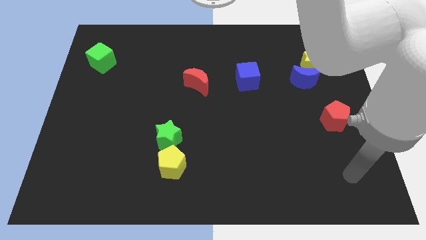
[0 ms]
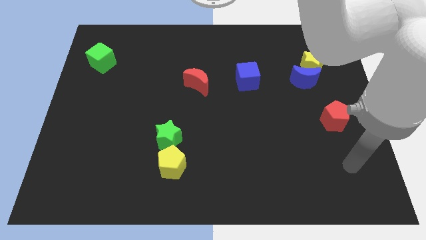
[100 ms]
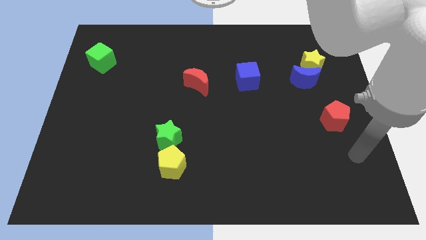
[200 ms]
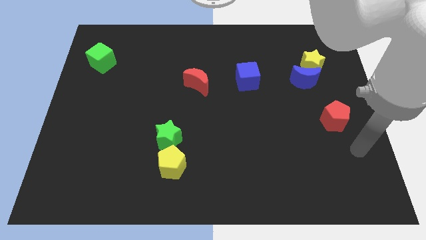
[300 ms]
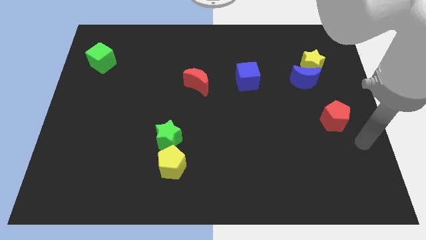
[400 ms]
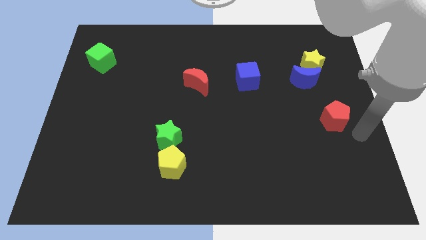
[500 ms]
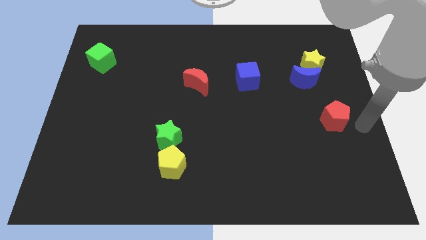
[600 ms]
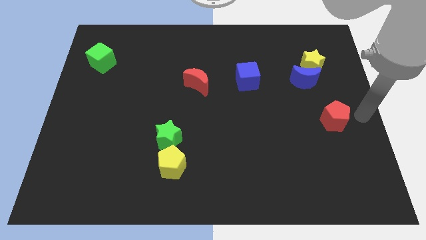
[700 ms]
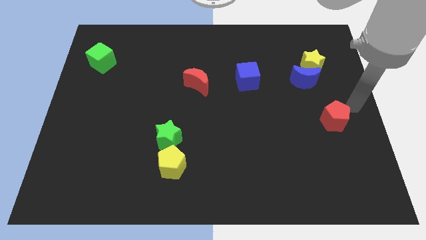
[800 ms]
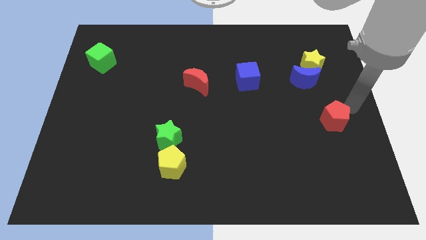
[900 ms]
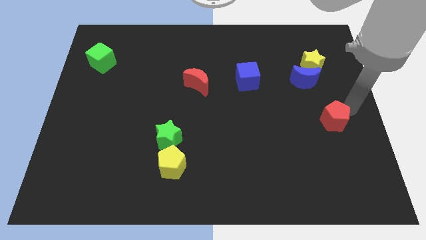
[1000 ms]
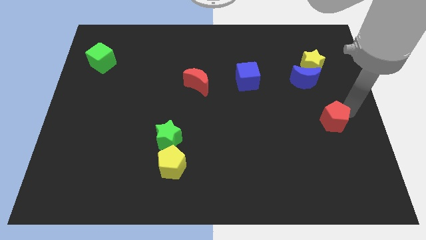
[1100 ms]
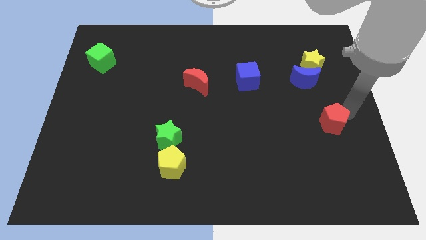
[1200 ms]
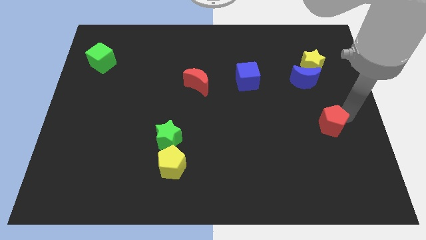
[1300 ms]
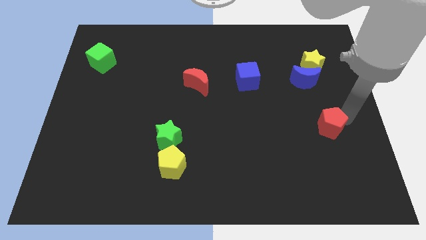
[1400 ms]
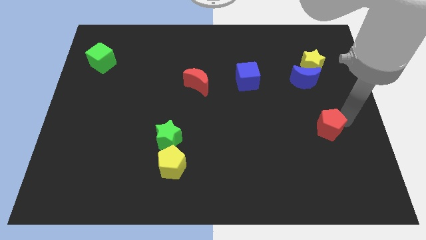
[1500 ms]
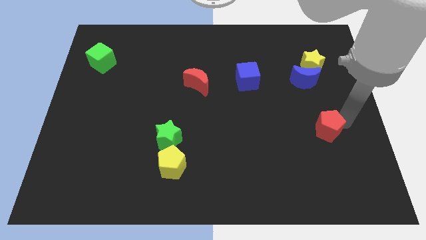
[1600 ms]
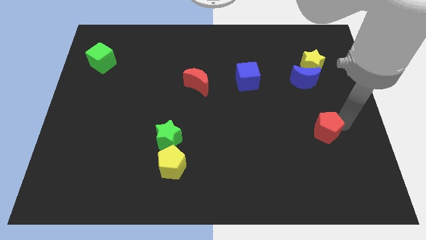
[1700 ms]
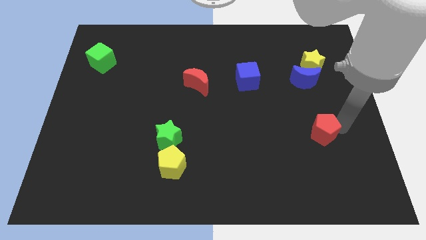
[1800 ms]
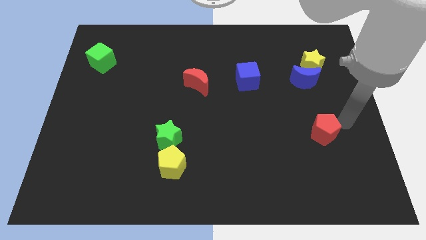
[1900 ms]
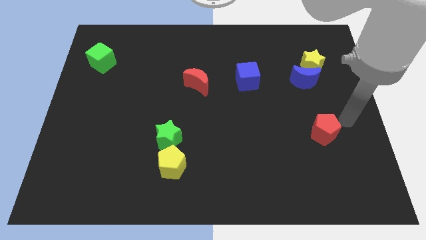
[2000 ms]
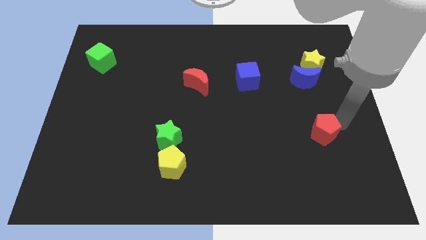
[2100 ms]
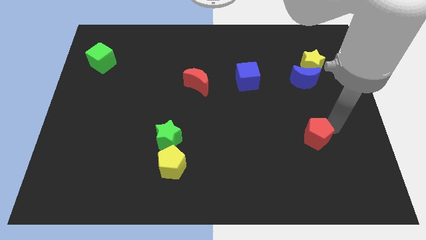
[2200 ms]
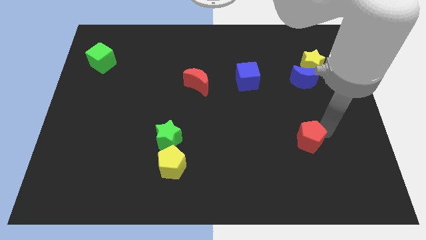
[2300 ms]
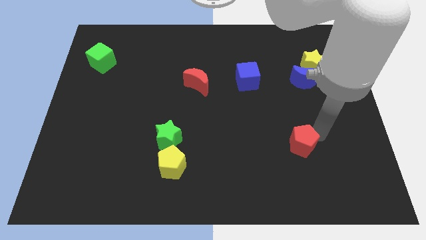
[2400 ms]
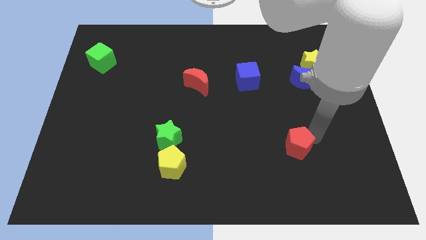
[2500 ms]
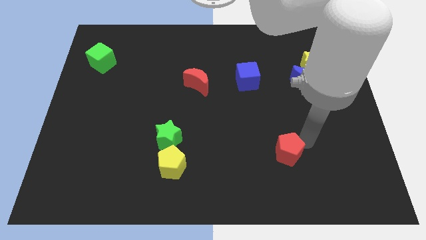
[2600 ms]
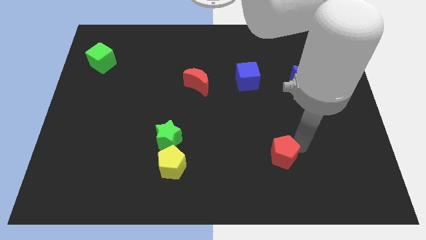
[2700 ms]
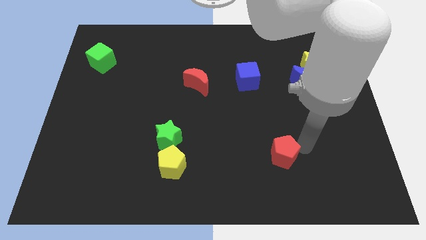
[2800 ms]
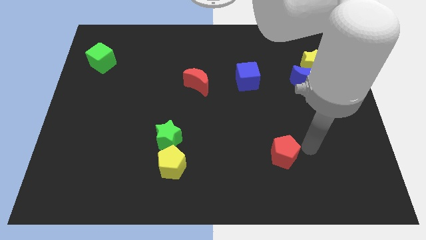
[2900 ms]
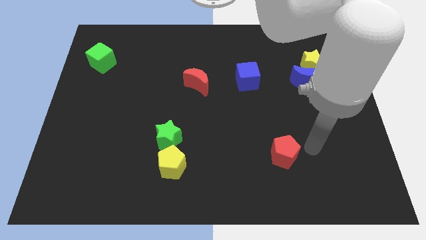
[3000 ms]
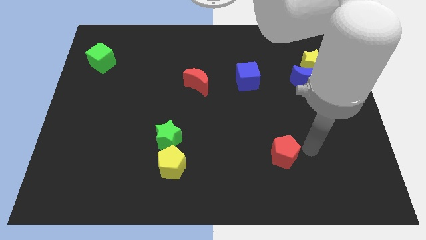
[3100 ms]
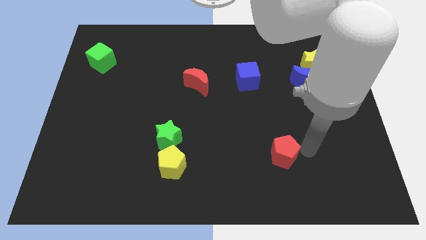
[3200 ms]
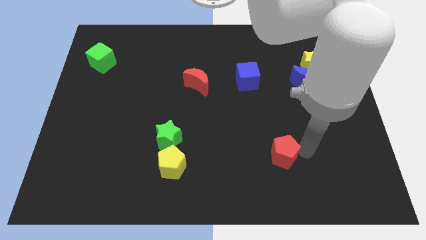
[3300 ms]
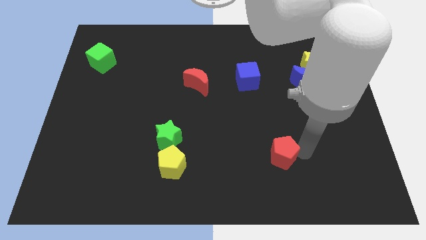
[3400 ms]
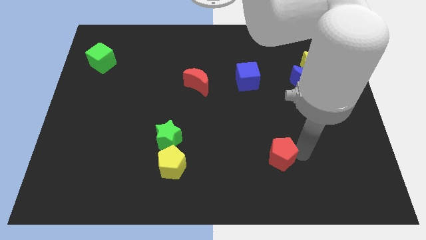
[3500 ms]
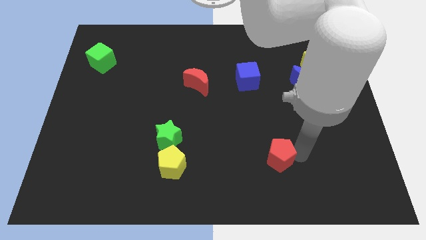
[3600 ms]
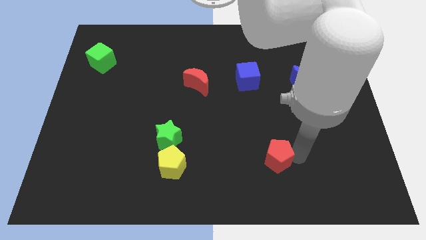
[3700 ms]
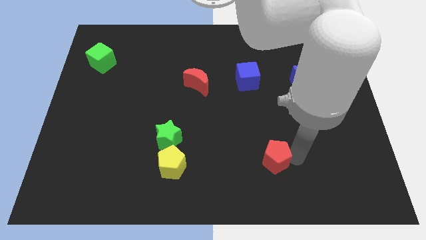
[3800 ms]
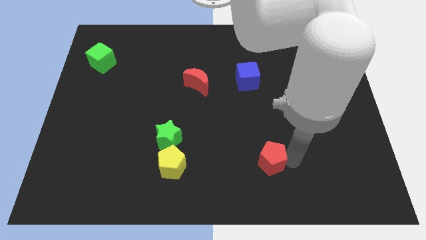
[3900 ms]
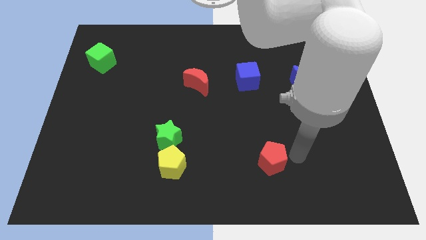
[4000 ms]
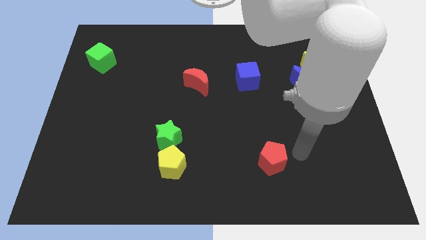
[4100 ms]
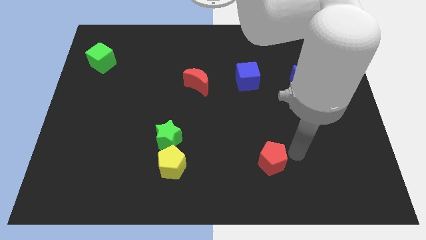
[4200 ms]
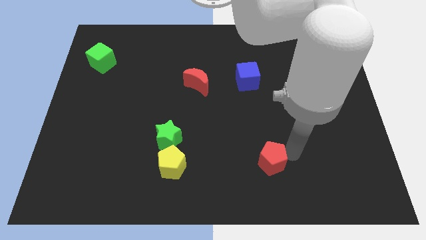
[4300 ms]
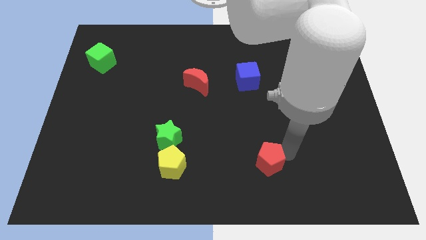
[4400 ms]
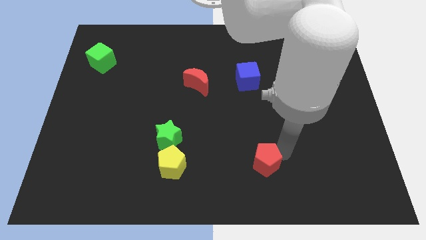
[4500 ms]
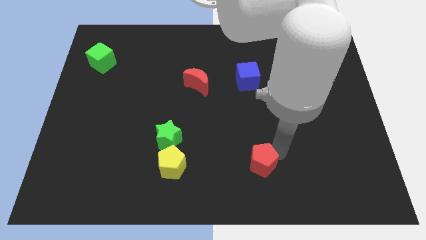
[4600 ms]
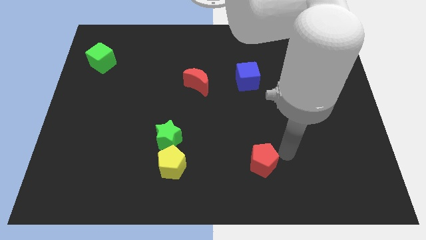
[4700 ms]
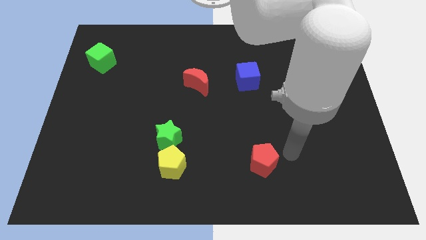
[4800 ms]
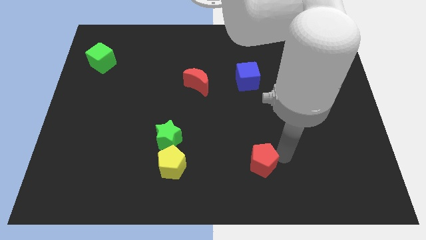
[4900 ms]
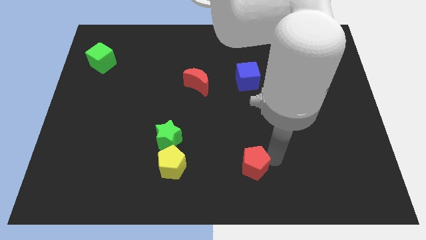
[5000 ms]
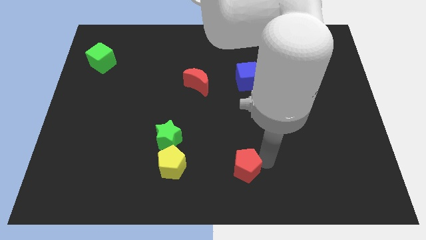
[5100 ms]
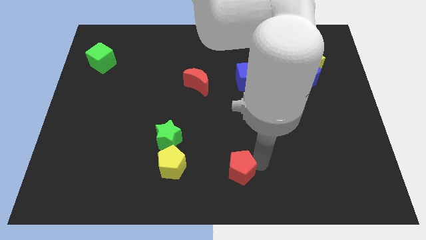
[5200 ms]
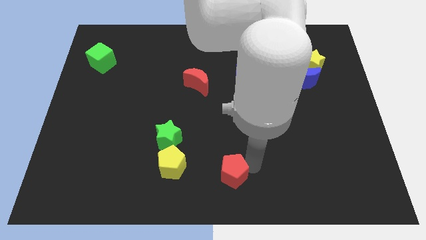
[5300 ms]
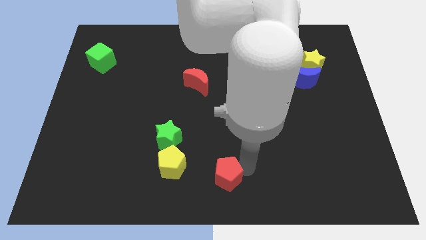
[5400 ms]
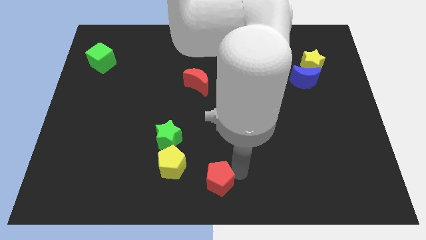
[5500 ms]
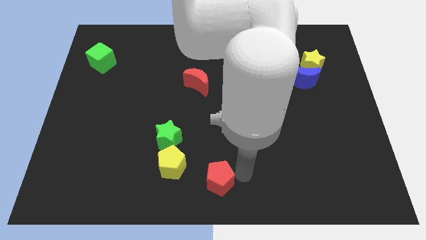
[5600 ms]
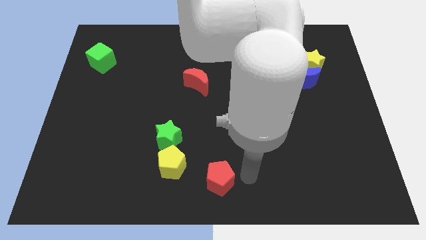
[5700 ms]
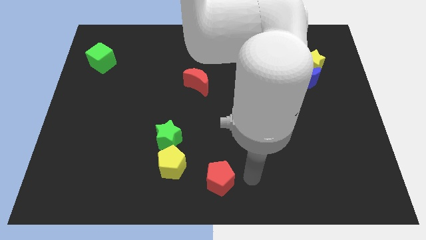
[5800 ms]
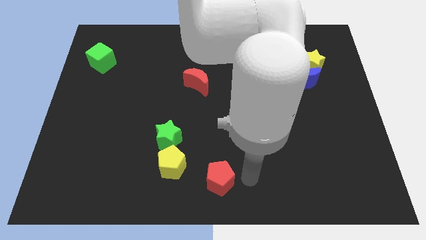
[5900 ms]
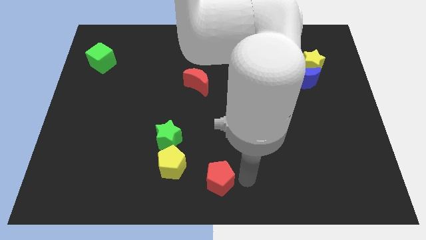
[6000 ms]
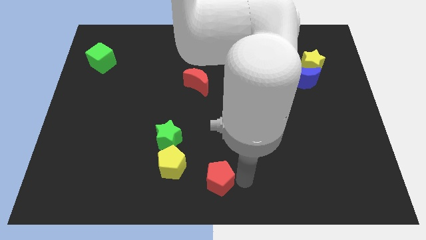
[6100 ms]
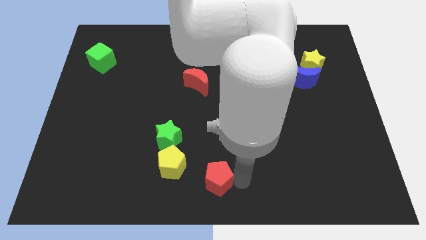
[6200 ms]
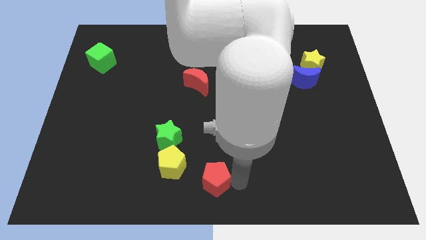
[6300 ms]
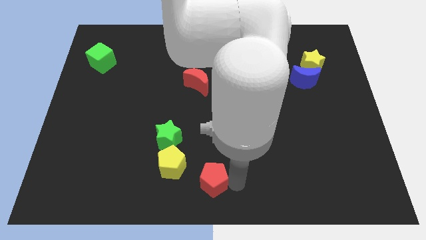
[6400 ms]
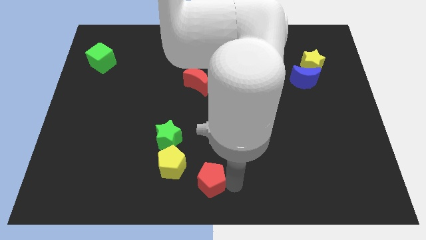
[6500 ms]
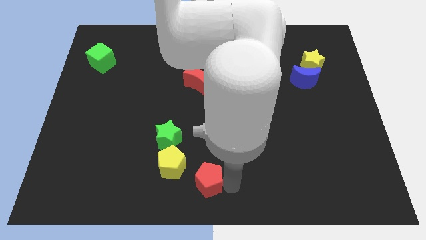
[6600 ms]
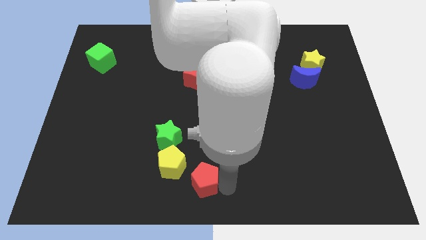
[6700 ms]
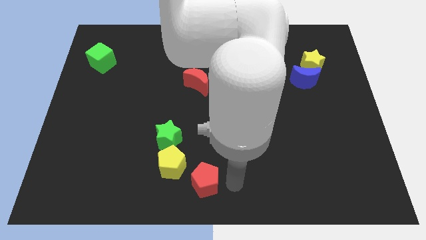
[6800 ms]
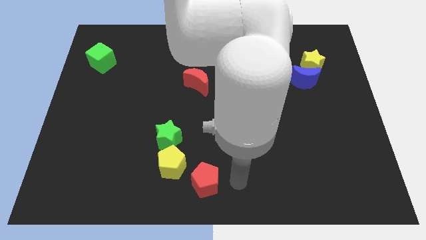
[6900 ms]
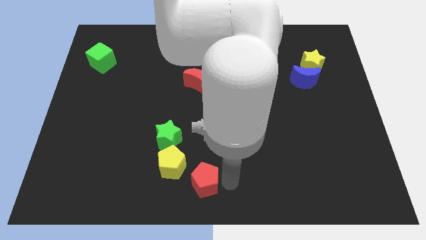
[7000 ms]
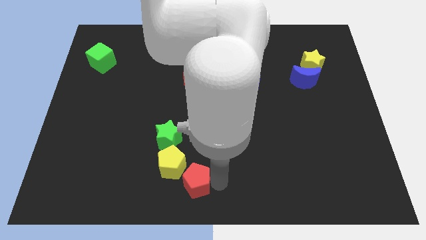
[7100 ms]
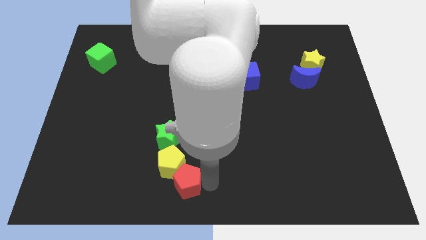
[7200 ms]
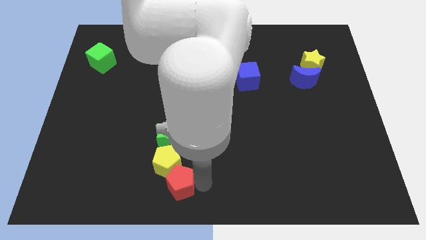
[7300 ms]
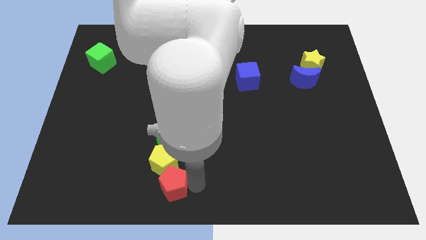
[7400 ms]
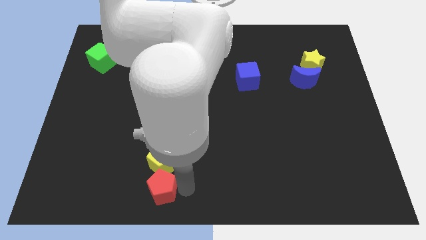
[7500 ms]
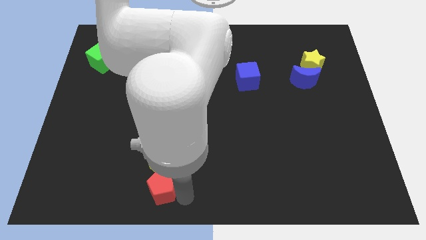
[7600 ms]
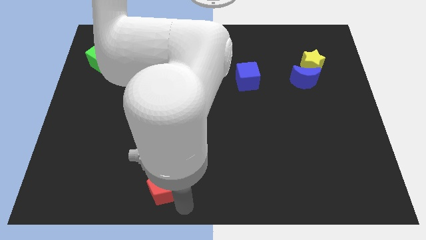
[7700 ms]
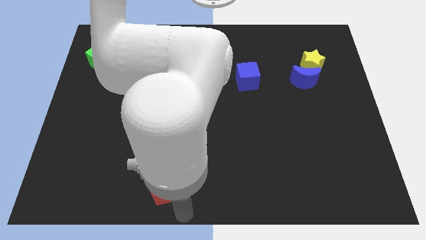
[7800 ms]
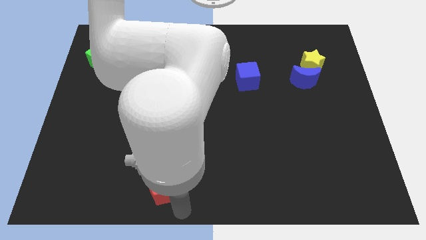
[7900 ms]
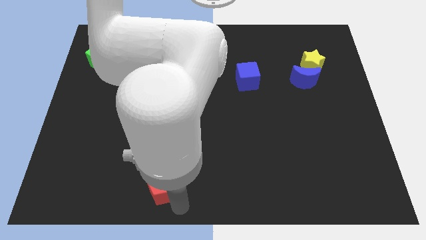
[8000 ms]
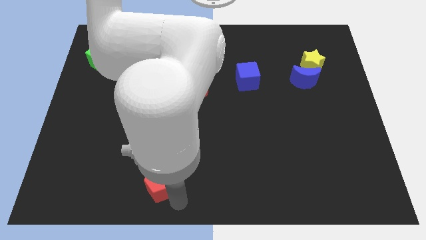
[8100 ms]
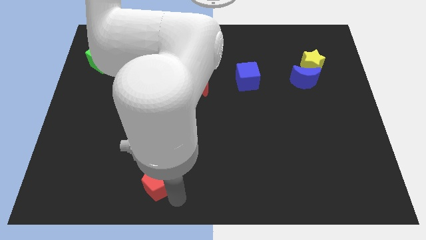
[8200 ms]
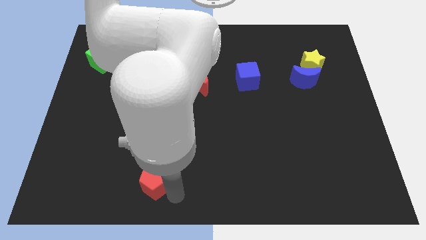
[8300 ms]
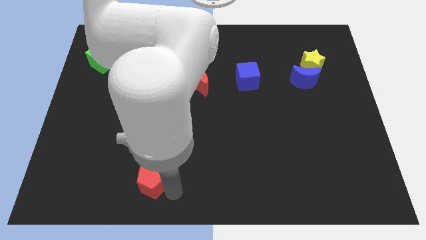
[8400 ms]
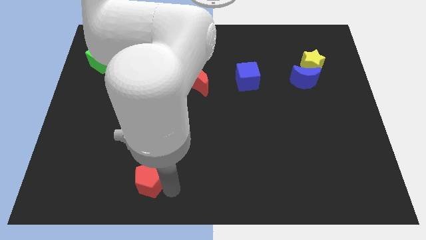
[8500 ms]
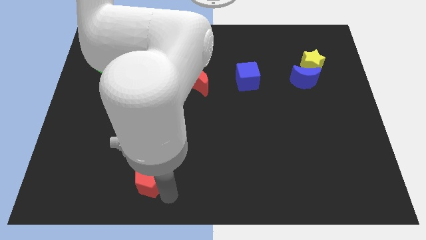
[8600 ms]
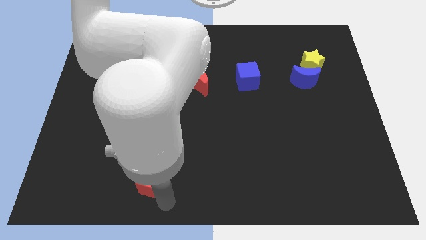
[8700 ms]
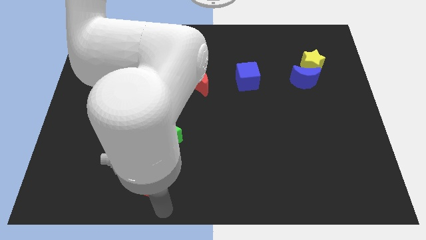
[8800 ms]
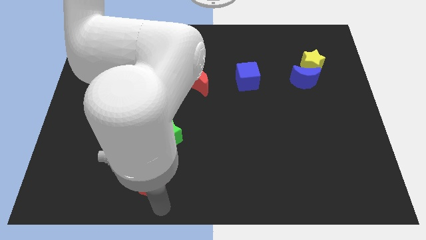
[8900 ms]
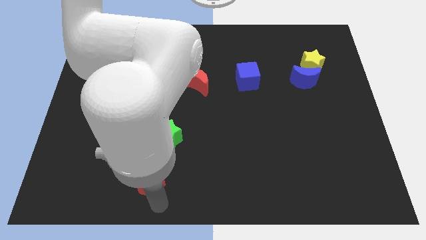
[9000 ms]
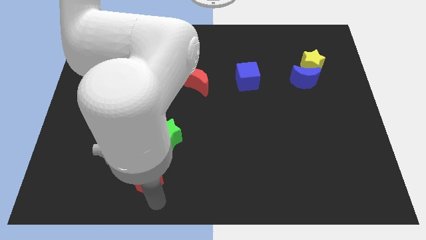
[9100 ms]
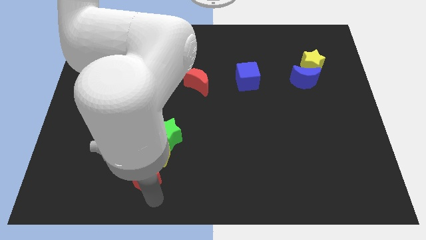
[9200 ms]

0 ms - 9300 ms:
slide the red pentagon to the bottom left side of the green star
